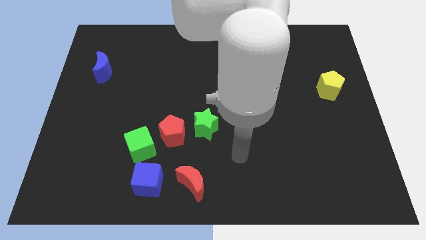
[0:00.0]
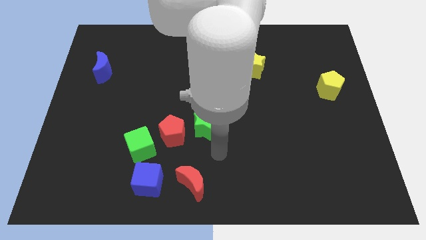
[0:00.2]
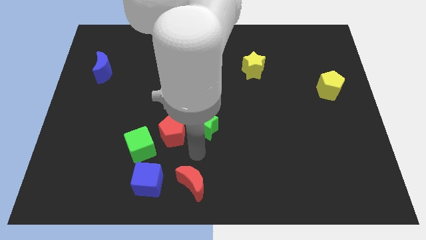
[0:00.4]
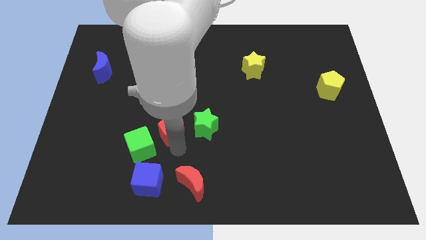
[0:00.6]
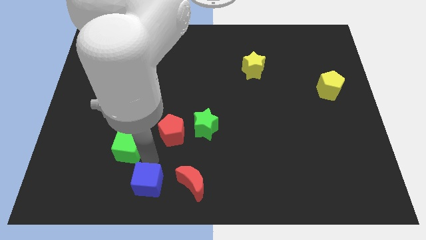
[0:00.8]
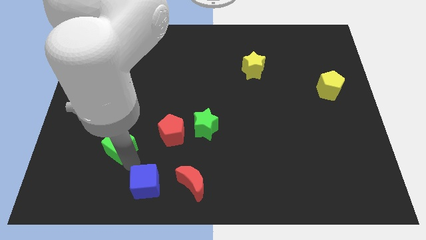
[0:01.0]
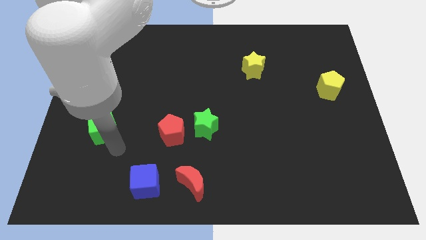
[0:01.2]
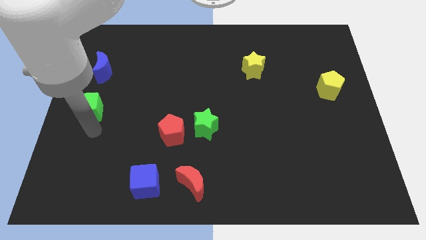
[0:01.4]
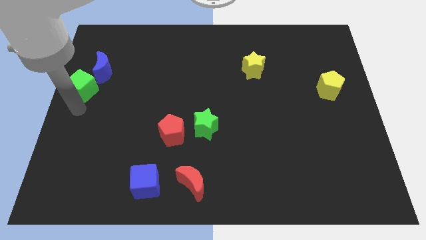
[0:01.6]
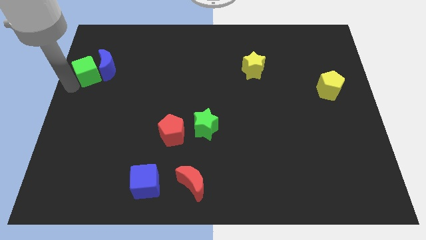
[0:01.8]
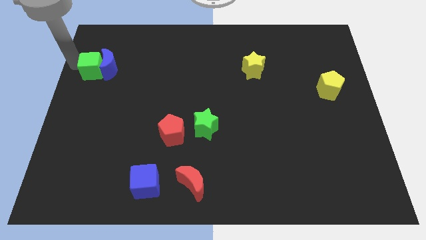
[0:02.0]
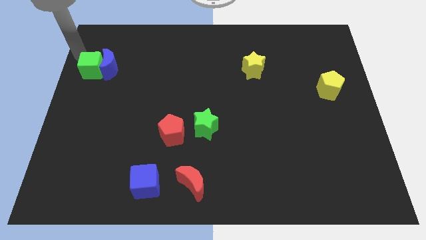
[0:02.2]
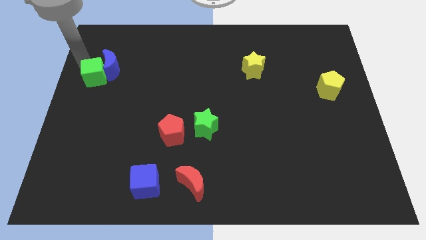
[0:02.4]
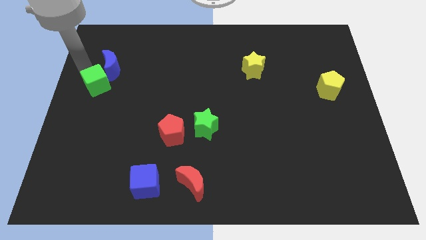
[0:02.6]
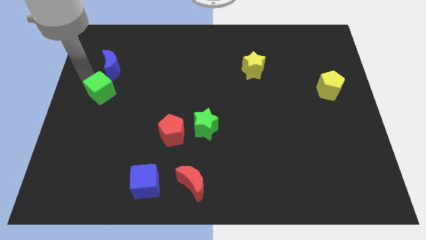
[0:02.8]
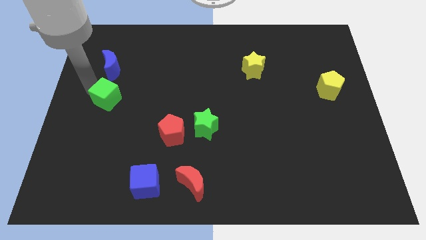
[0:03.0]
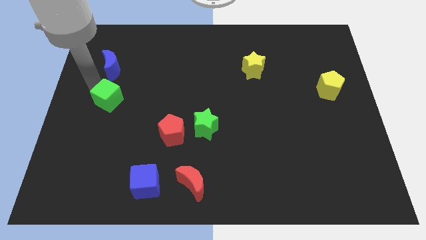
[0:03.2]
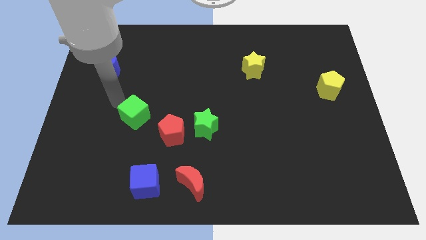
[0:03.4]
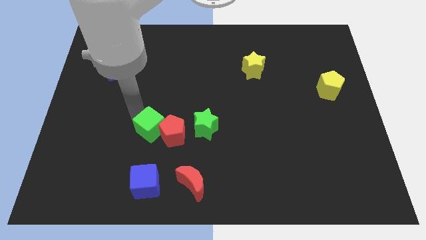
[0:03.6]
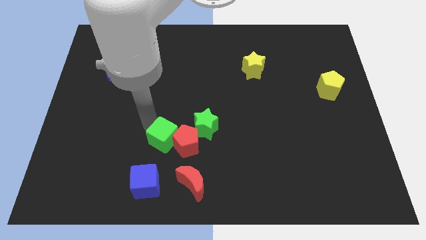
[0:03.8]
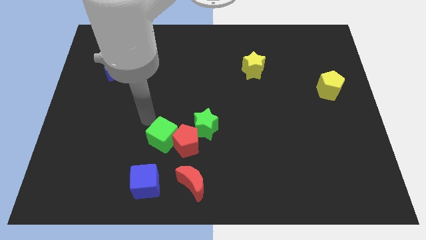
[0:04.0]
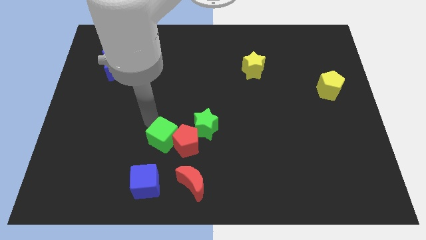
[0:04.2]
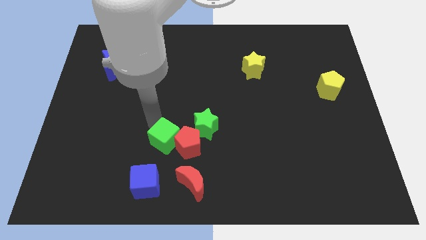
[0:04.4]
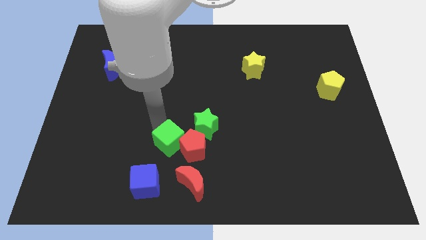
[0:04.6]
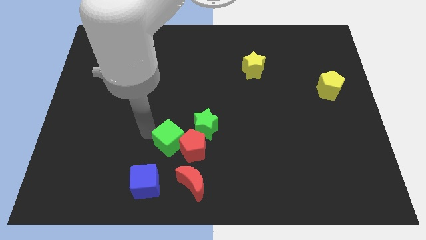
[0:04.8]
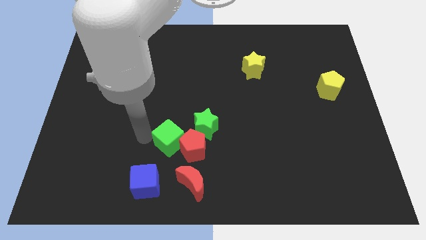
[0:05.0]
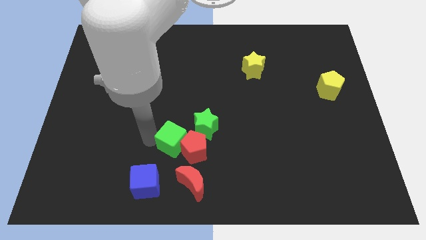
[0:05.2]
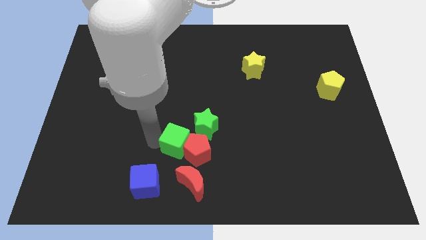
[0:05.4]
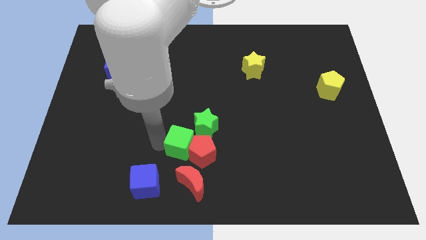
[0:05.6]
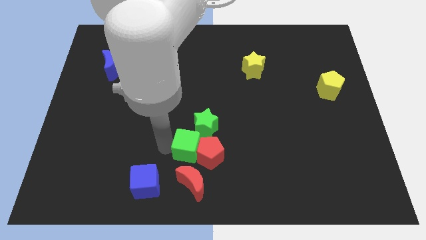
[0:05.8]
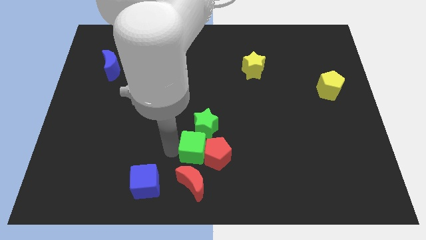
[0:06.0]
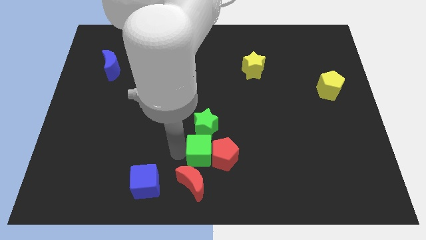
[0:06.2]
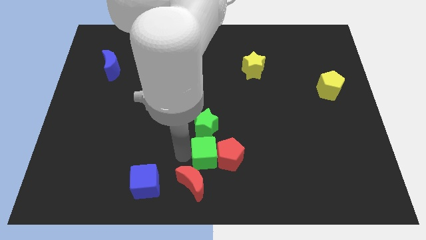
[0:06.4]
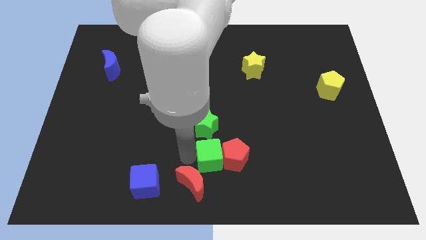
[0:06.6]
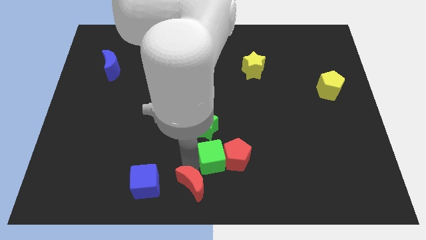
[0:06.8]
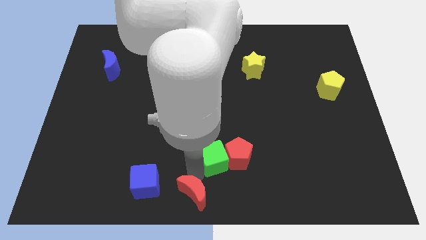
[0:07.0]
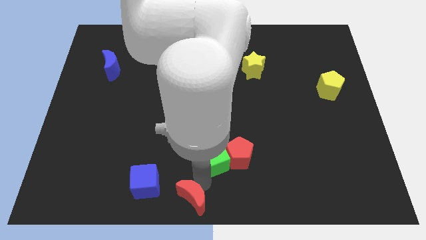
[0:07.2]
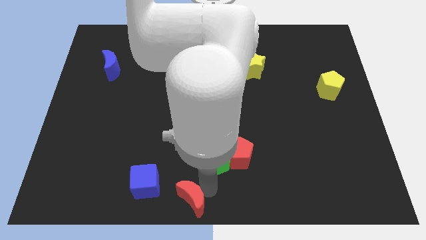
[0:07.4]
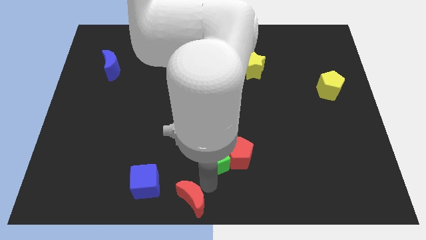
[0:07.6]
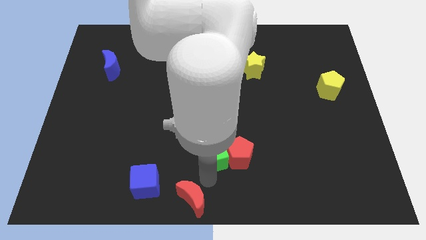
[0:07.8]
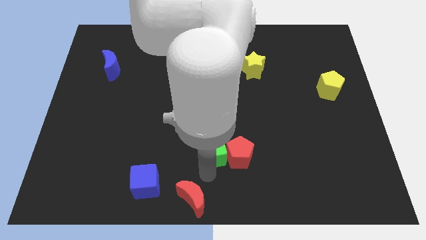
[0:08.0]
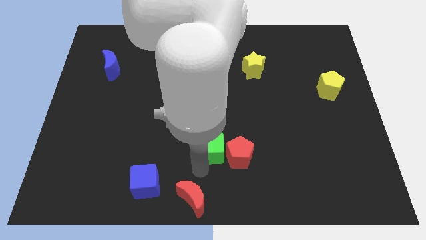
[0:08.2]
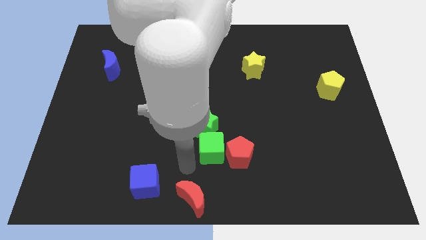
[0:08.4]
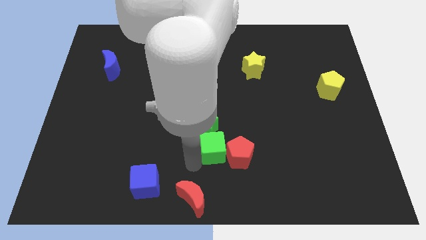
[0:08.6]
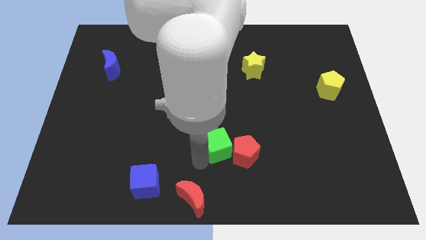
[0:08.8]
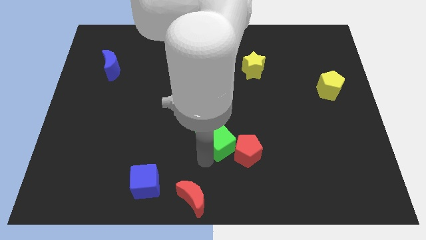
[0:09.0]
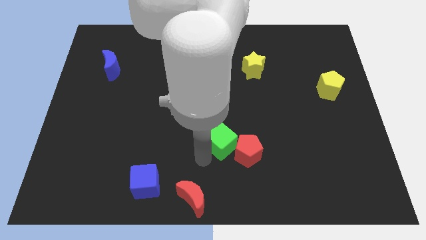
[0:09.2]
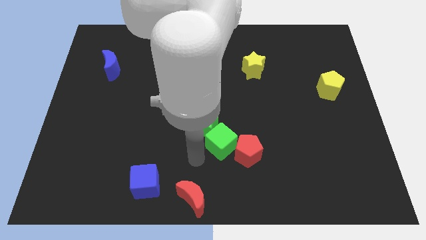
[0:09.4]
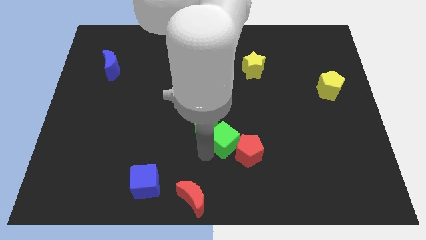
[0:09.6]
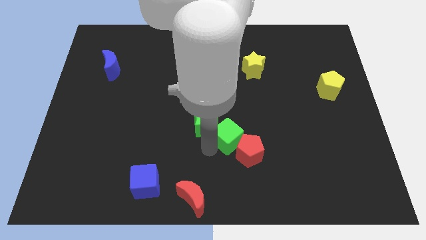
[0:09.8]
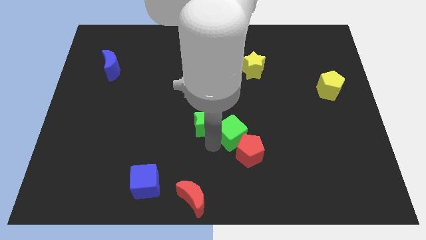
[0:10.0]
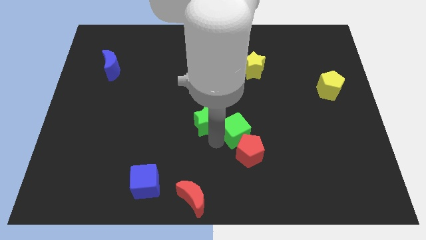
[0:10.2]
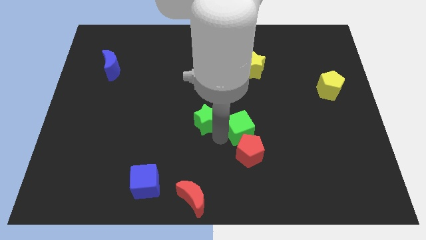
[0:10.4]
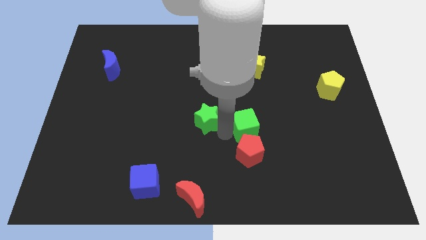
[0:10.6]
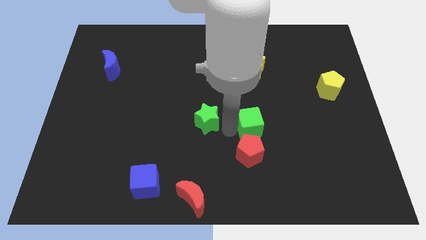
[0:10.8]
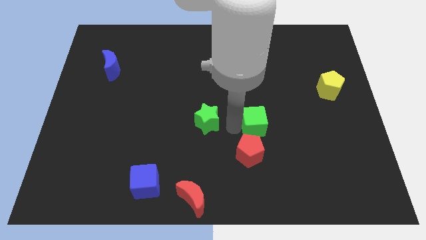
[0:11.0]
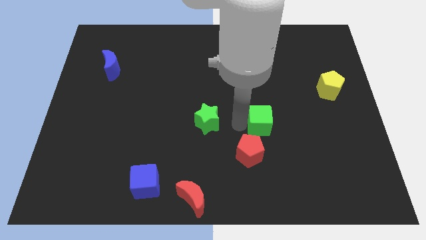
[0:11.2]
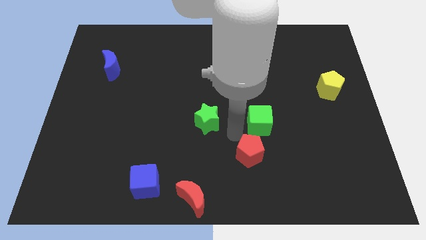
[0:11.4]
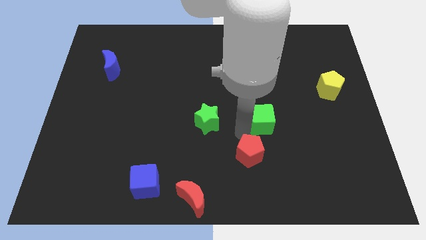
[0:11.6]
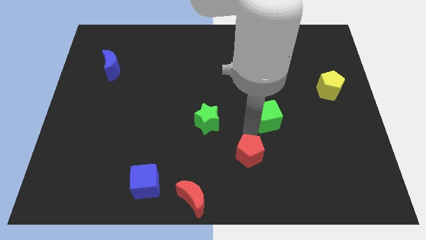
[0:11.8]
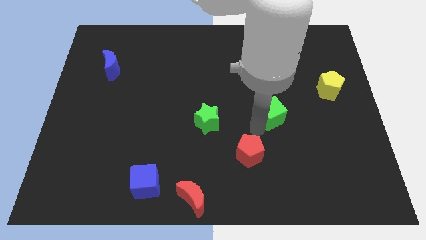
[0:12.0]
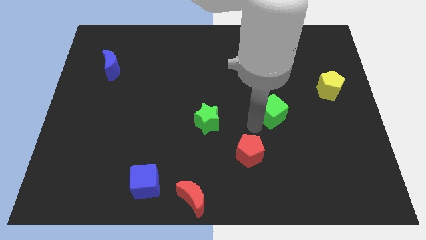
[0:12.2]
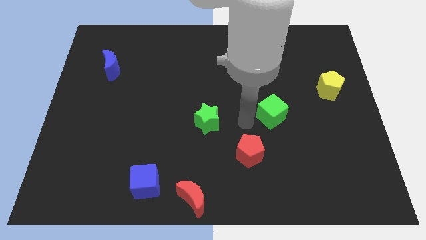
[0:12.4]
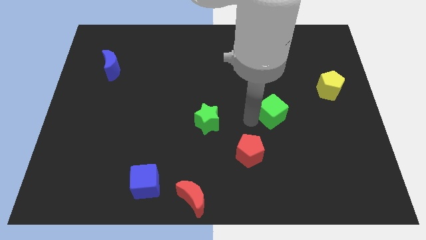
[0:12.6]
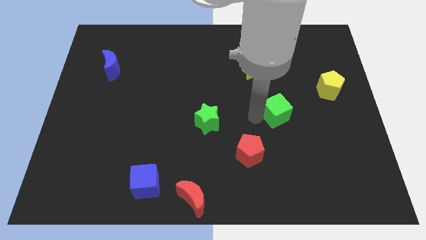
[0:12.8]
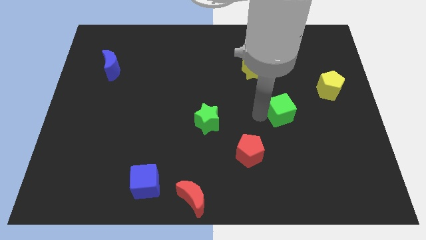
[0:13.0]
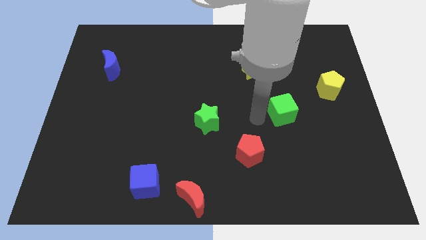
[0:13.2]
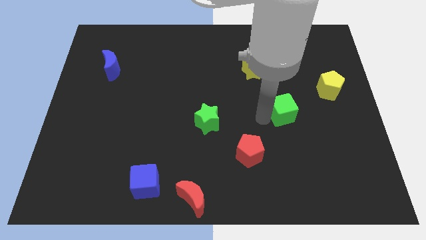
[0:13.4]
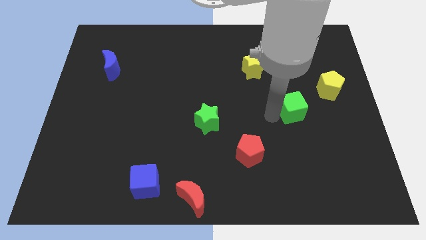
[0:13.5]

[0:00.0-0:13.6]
put the green cube diagonally down and to the left of the yellow pentagon
